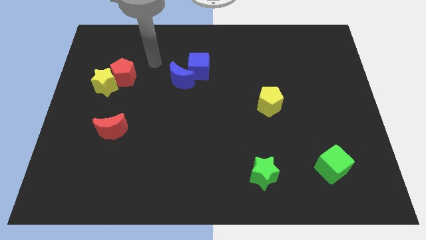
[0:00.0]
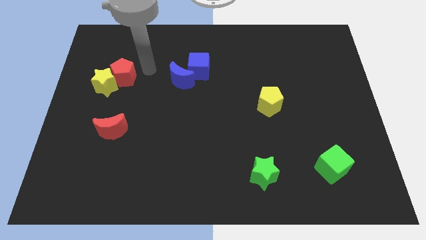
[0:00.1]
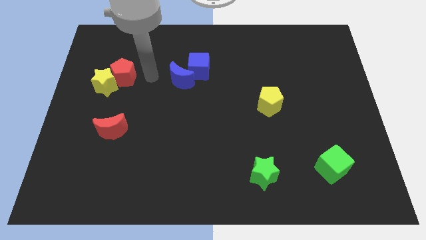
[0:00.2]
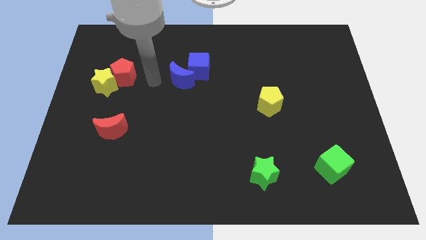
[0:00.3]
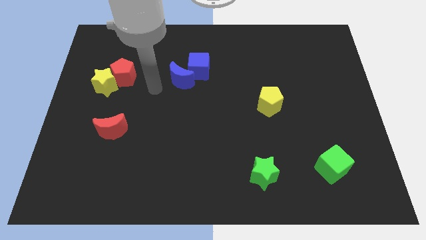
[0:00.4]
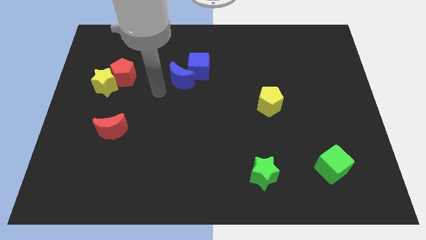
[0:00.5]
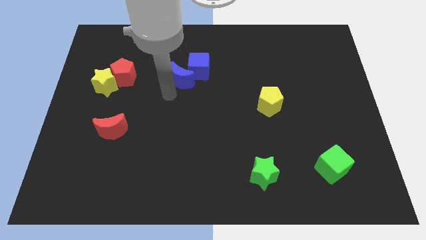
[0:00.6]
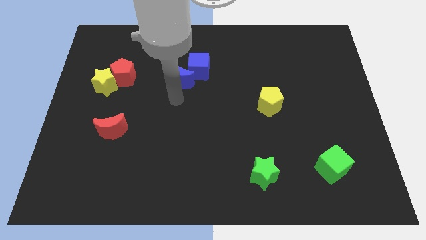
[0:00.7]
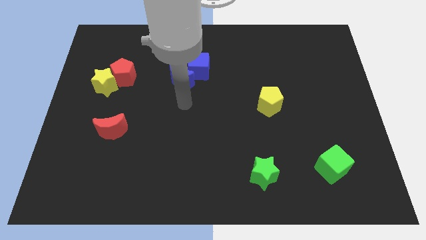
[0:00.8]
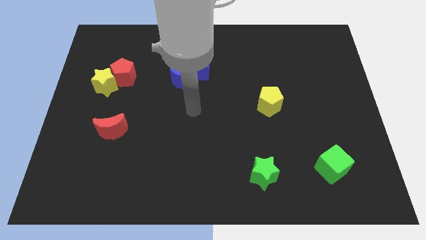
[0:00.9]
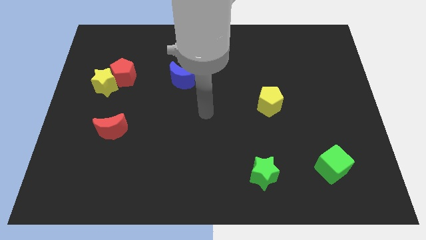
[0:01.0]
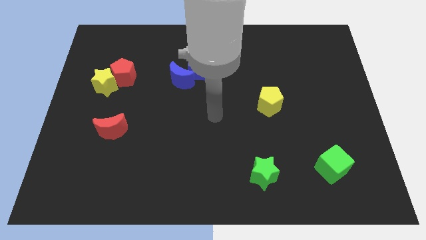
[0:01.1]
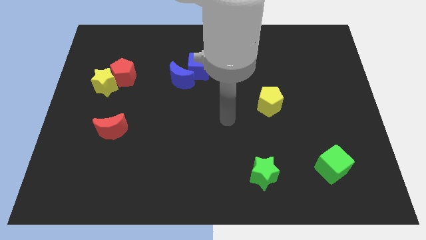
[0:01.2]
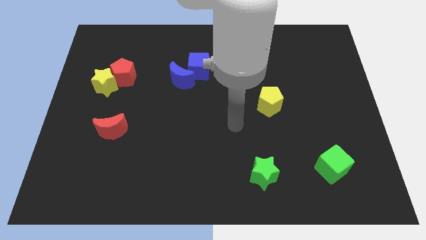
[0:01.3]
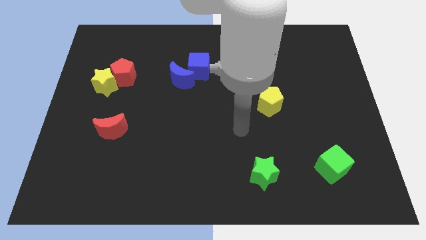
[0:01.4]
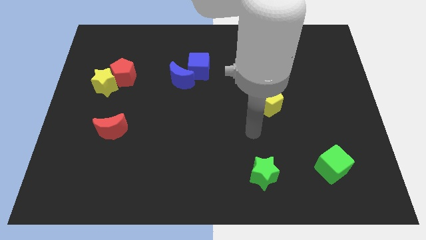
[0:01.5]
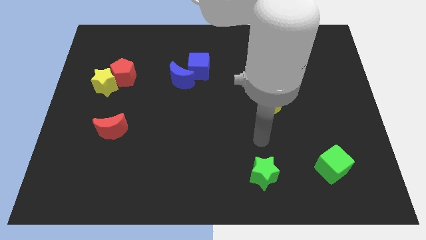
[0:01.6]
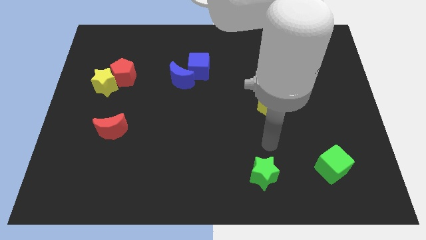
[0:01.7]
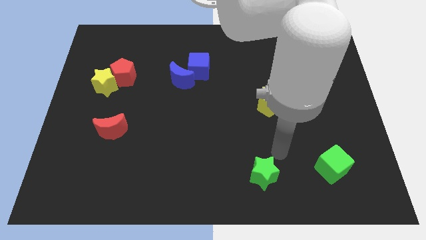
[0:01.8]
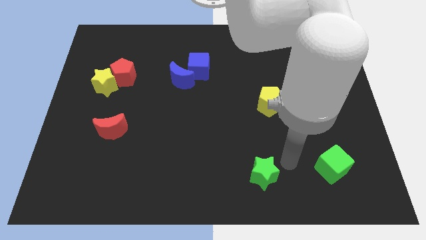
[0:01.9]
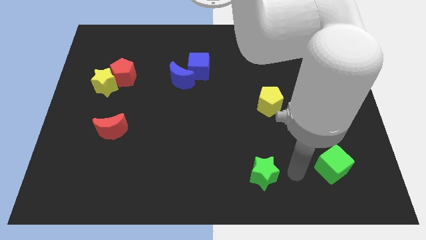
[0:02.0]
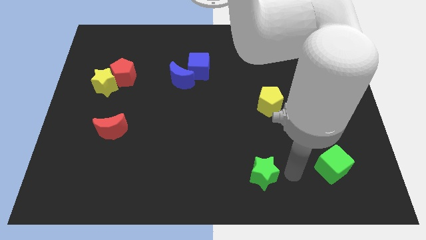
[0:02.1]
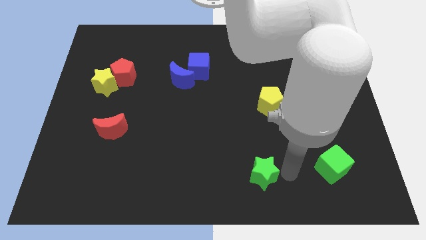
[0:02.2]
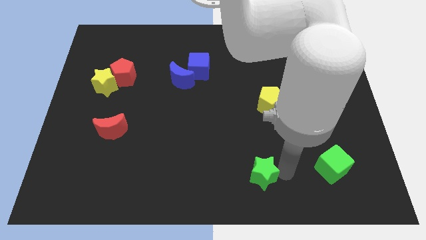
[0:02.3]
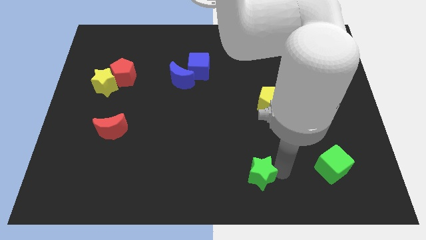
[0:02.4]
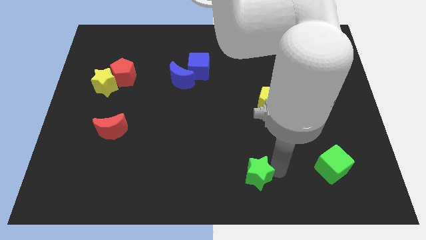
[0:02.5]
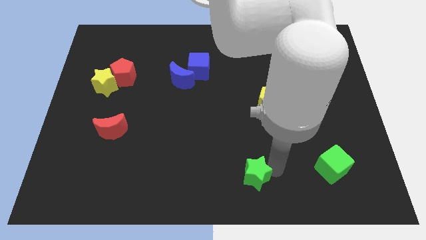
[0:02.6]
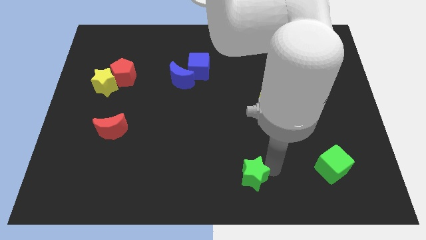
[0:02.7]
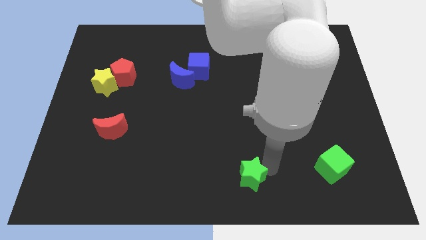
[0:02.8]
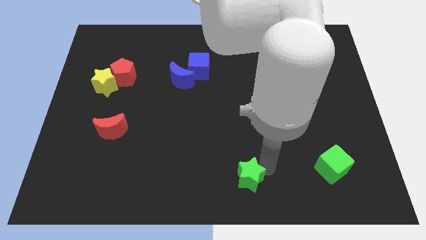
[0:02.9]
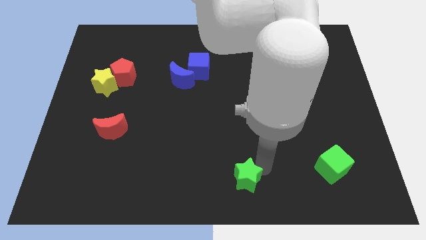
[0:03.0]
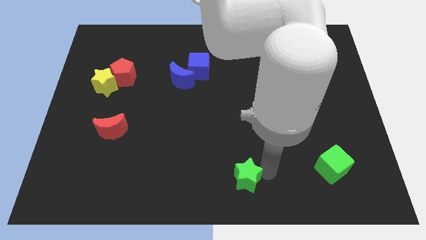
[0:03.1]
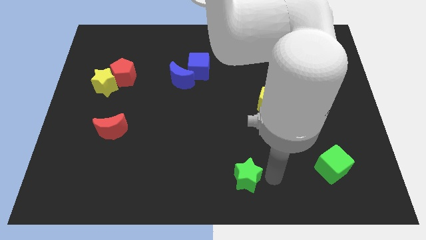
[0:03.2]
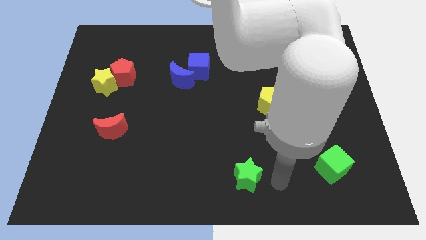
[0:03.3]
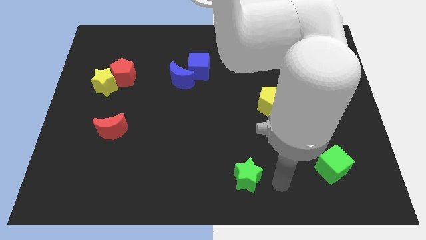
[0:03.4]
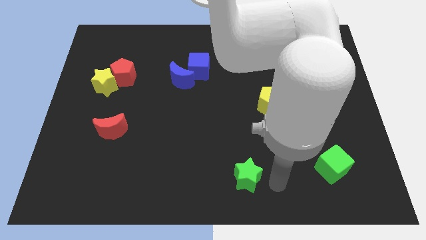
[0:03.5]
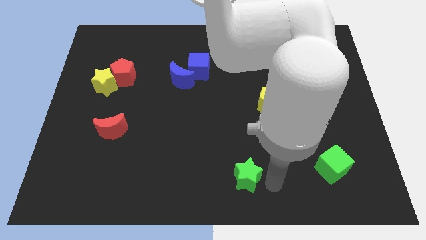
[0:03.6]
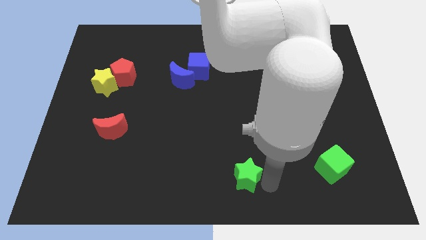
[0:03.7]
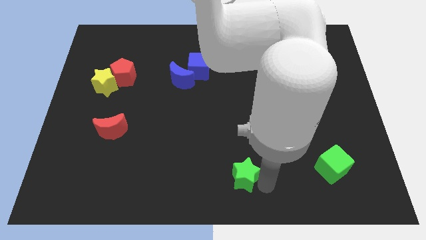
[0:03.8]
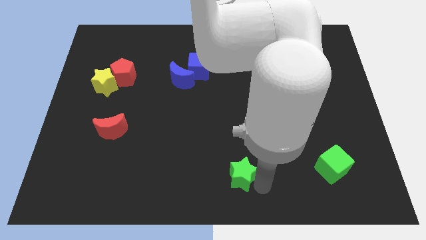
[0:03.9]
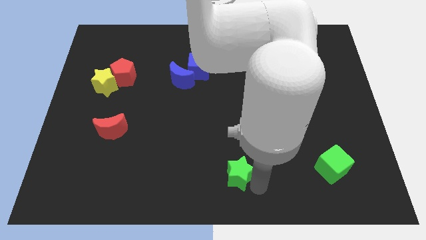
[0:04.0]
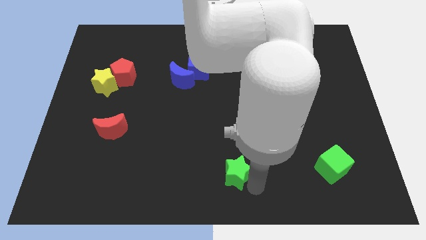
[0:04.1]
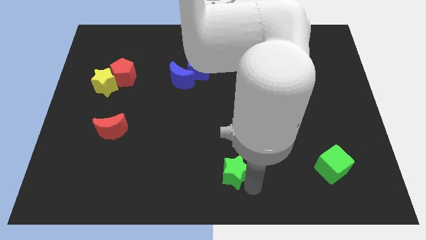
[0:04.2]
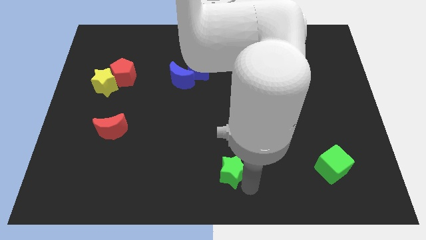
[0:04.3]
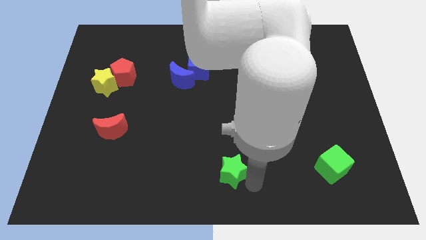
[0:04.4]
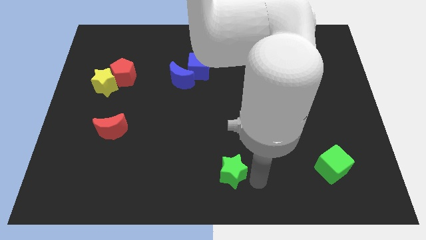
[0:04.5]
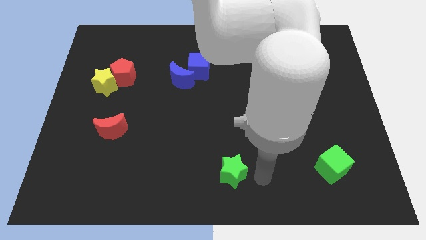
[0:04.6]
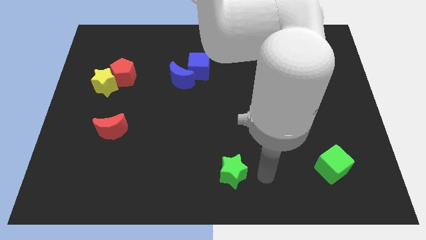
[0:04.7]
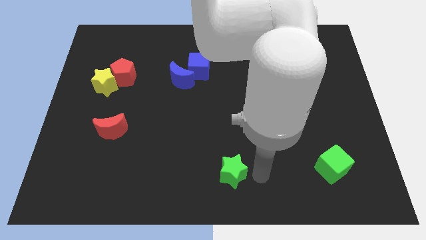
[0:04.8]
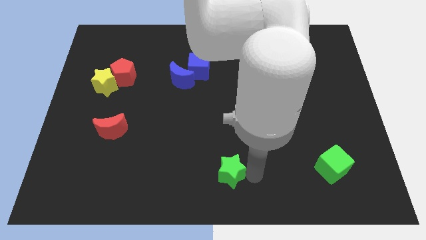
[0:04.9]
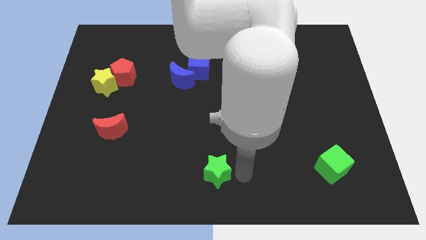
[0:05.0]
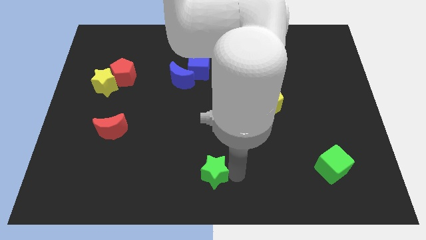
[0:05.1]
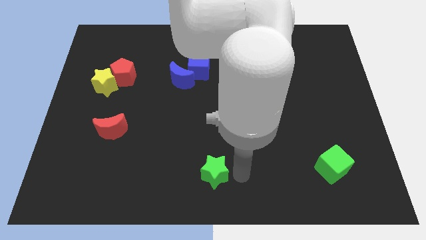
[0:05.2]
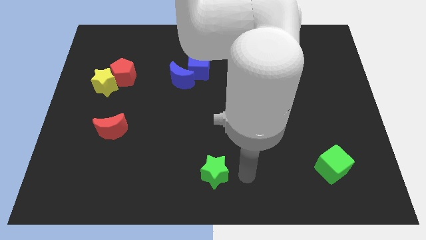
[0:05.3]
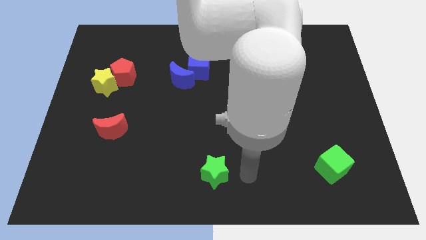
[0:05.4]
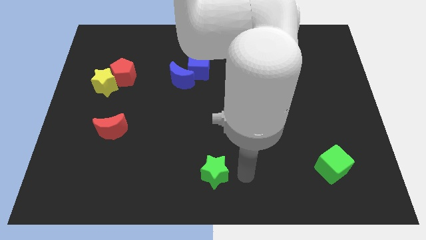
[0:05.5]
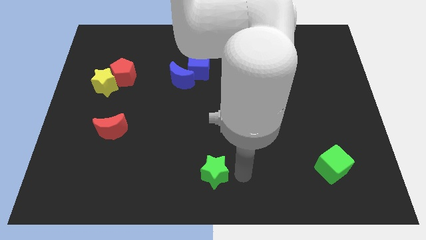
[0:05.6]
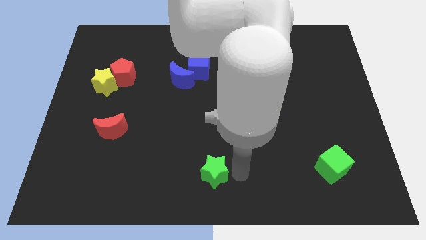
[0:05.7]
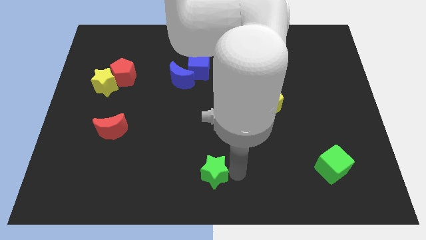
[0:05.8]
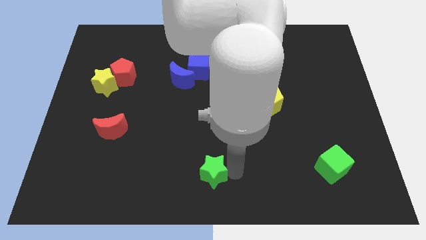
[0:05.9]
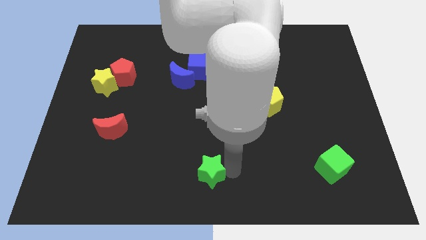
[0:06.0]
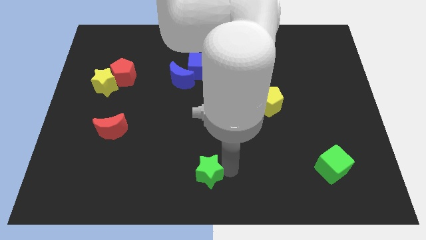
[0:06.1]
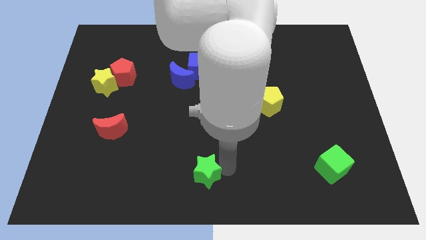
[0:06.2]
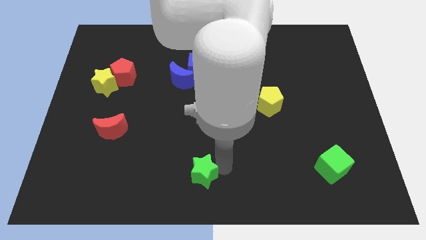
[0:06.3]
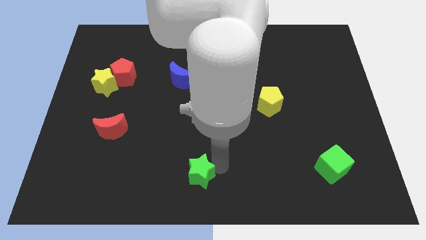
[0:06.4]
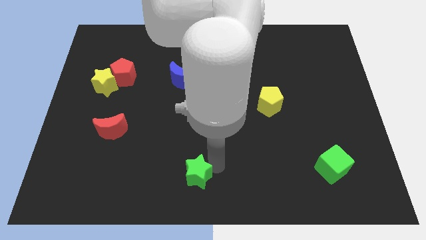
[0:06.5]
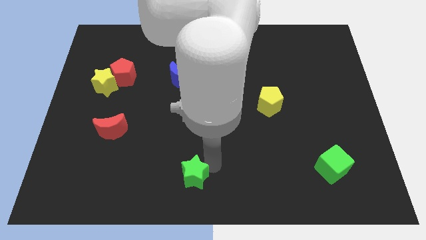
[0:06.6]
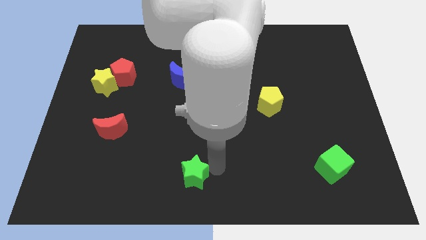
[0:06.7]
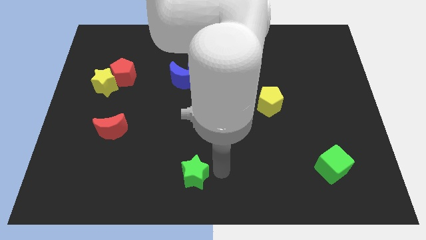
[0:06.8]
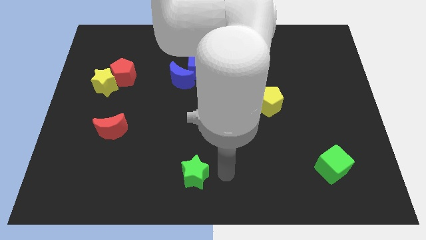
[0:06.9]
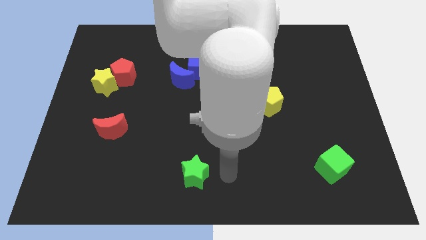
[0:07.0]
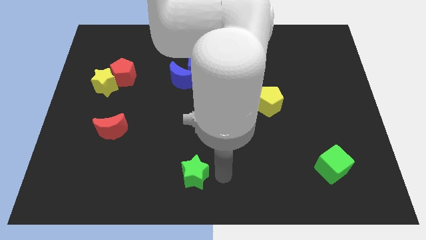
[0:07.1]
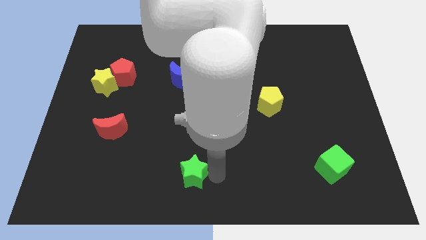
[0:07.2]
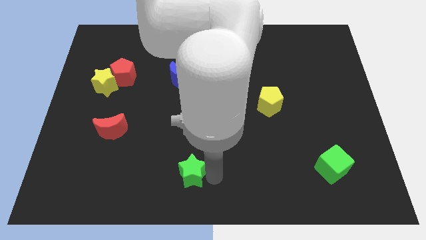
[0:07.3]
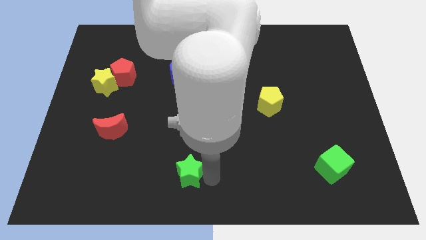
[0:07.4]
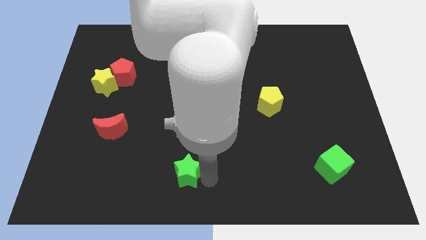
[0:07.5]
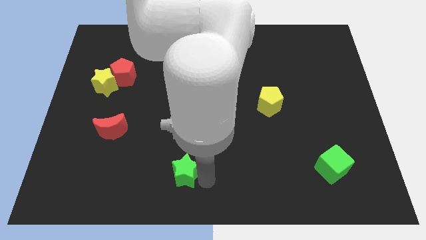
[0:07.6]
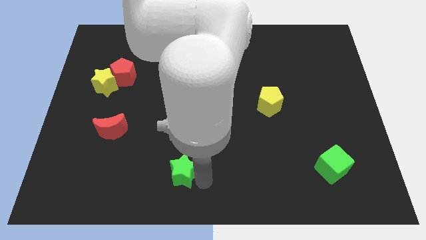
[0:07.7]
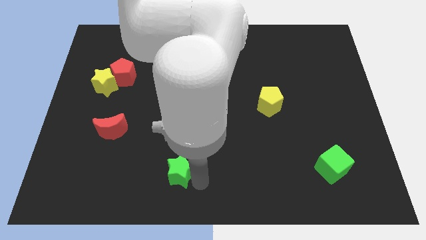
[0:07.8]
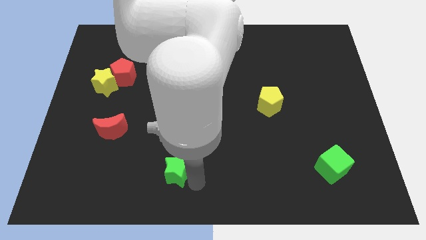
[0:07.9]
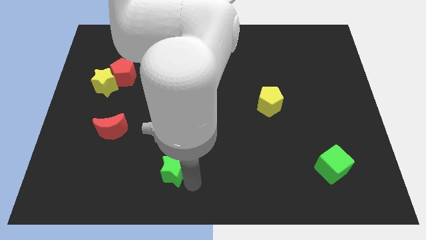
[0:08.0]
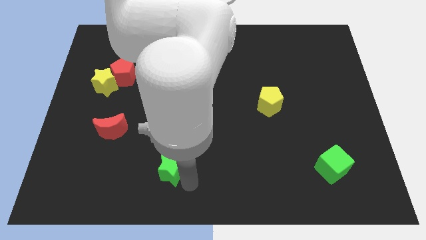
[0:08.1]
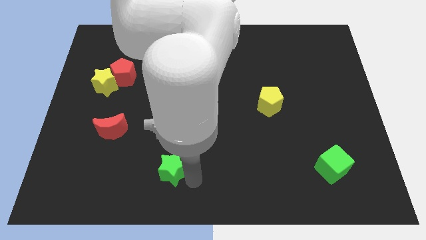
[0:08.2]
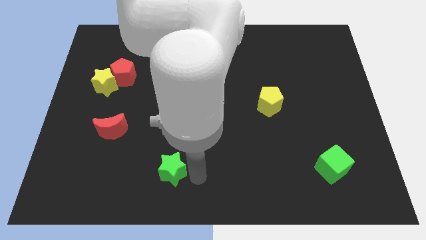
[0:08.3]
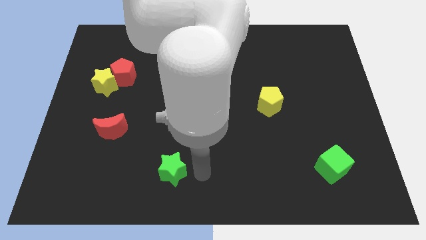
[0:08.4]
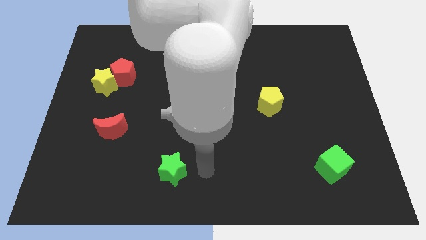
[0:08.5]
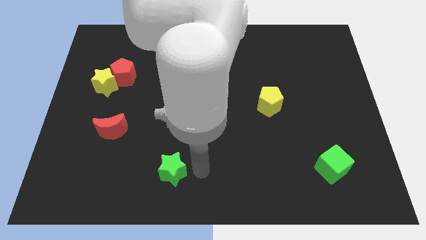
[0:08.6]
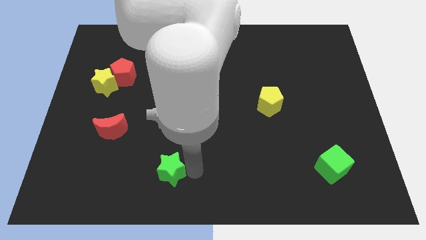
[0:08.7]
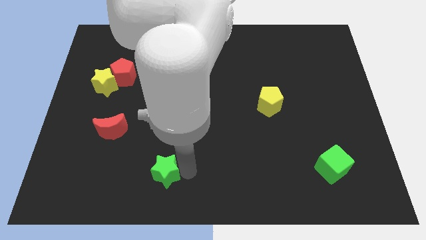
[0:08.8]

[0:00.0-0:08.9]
slide the green star left
